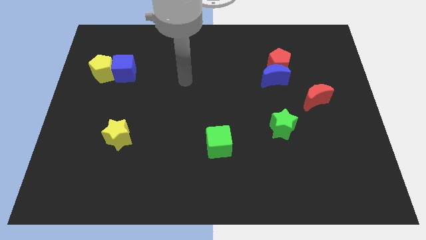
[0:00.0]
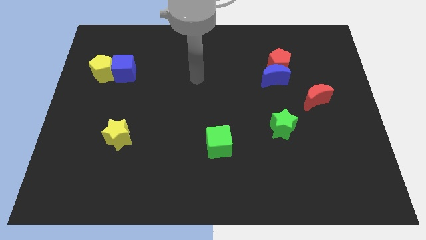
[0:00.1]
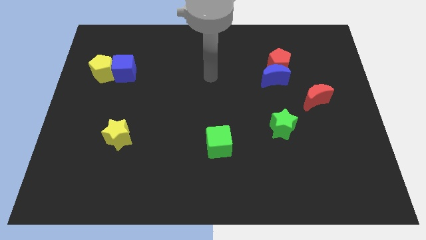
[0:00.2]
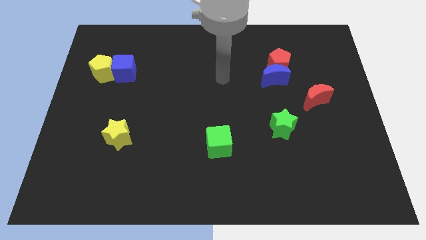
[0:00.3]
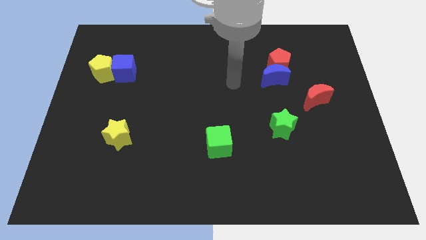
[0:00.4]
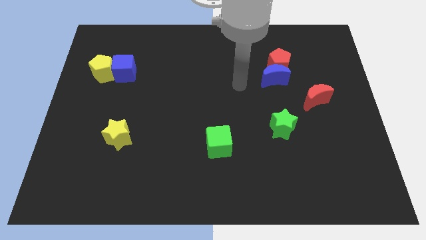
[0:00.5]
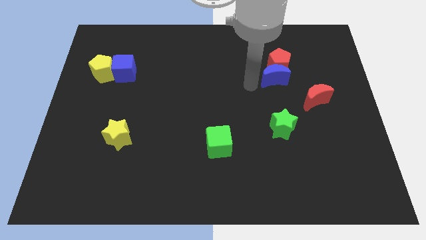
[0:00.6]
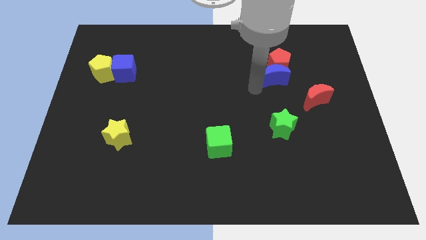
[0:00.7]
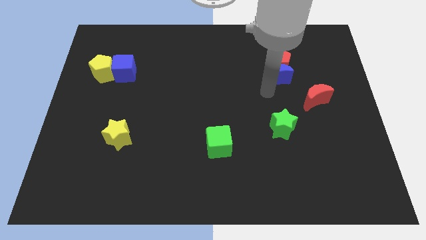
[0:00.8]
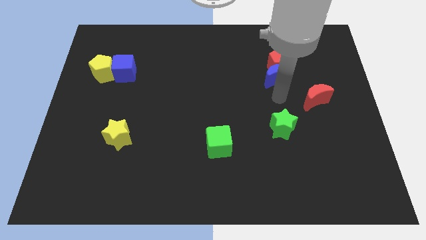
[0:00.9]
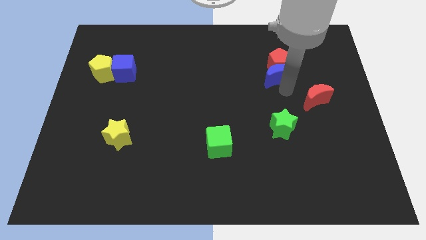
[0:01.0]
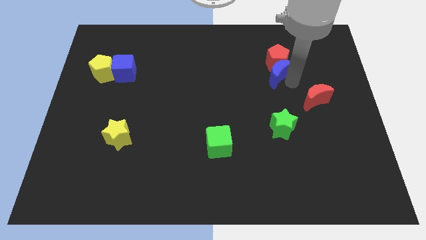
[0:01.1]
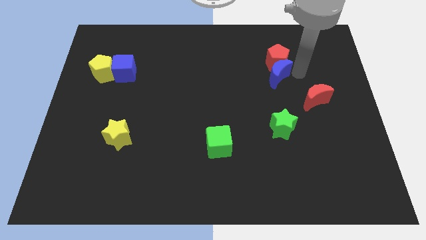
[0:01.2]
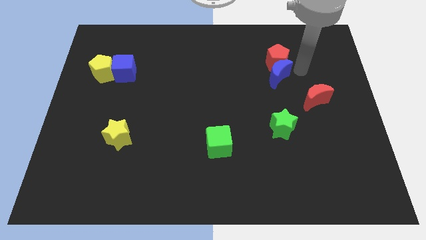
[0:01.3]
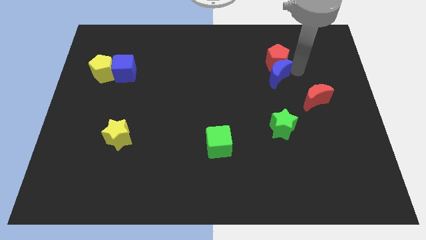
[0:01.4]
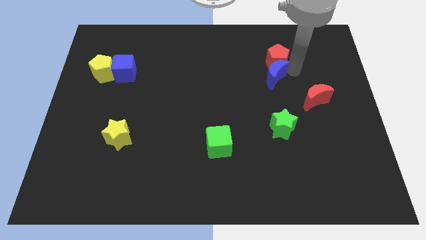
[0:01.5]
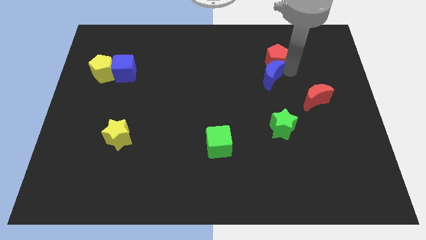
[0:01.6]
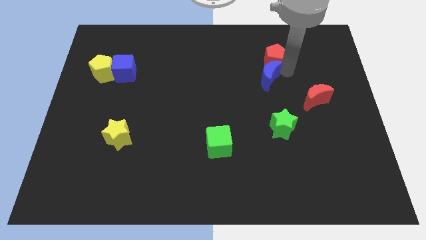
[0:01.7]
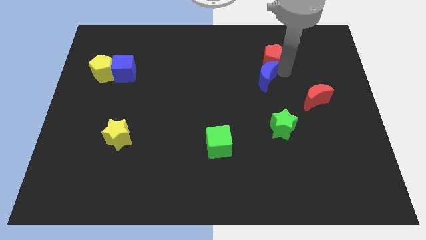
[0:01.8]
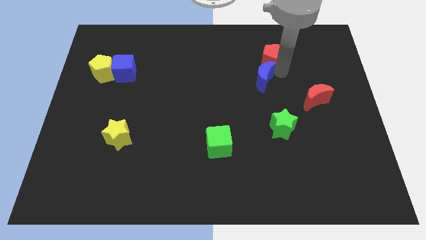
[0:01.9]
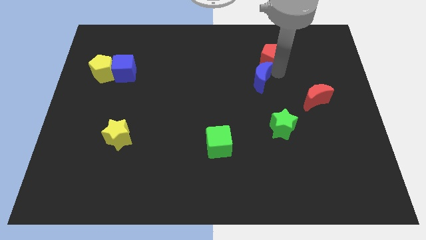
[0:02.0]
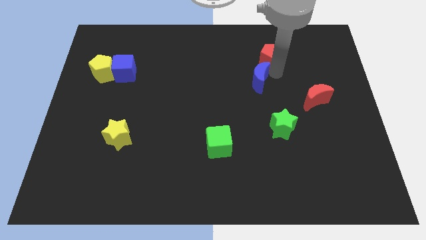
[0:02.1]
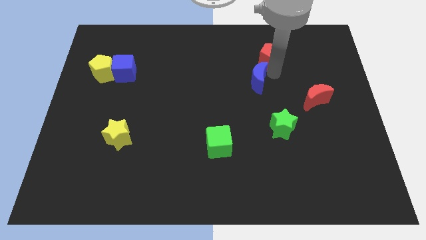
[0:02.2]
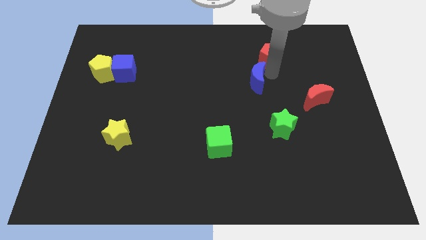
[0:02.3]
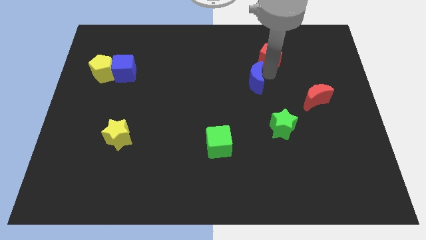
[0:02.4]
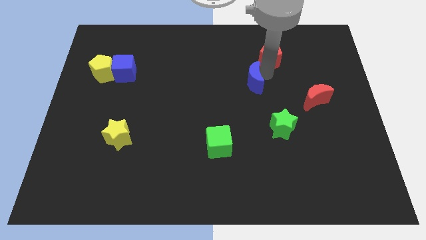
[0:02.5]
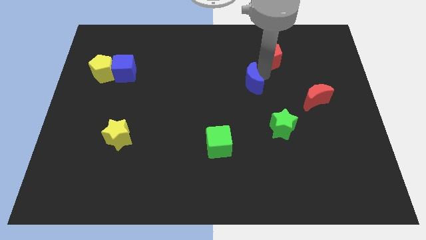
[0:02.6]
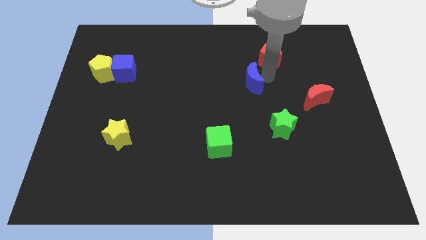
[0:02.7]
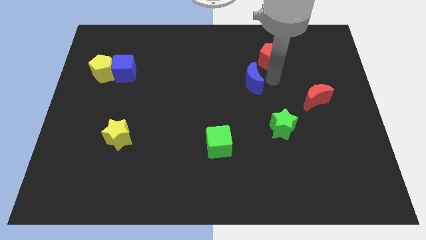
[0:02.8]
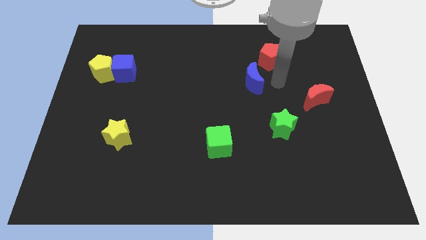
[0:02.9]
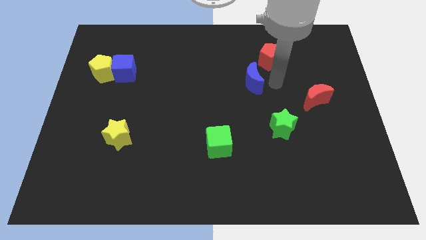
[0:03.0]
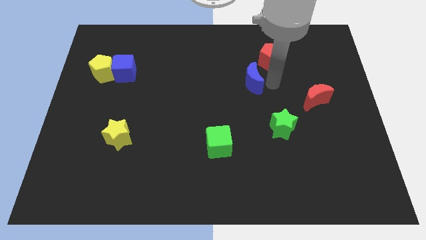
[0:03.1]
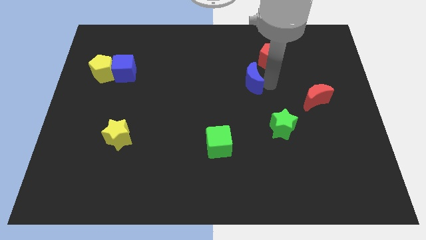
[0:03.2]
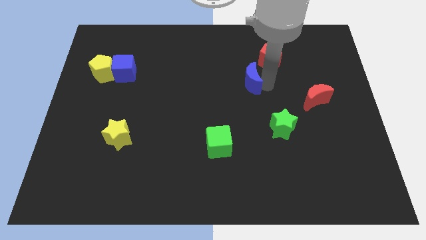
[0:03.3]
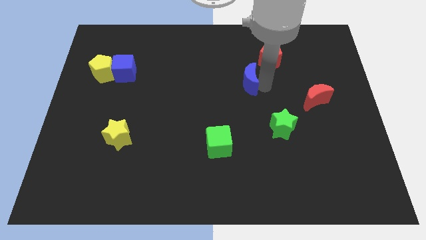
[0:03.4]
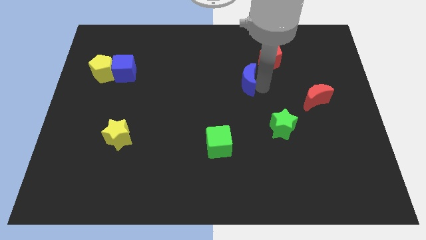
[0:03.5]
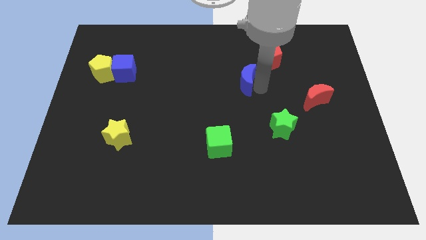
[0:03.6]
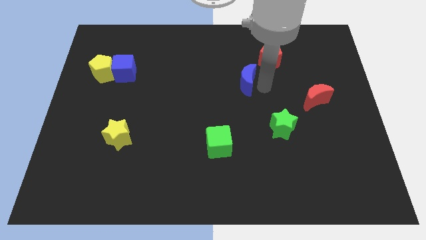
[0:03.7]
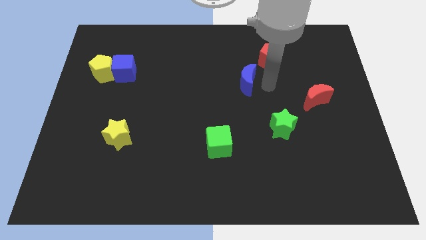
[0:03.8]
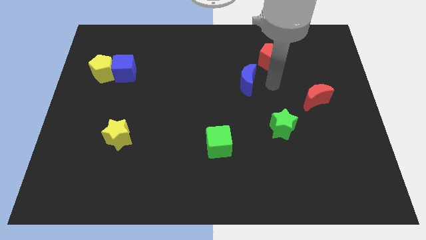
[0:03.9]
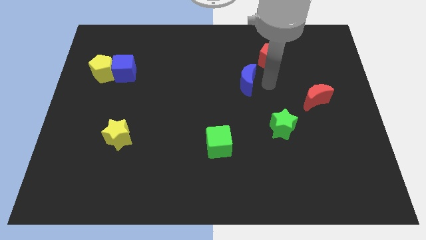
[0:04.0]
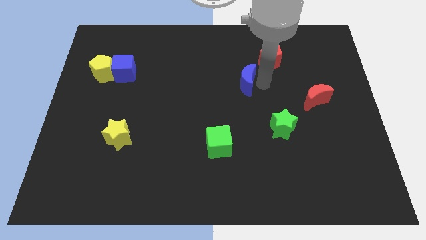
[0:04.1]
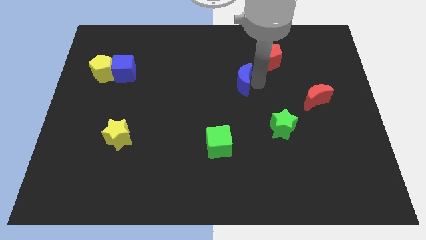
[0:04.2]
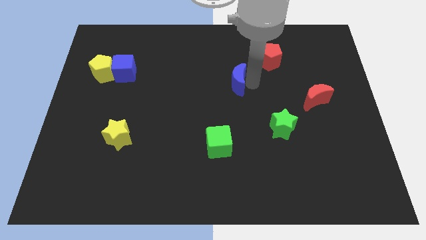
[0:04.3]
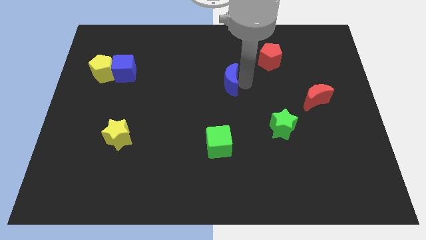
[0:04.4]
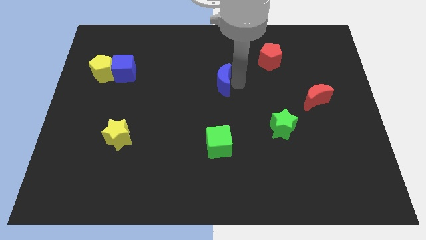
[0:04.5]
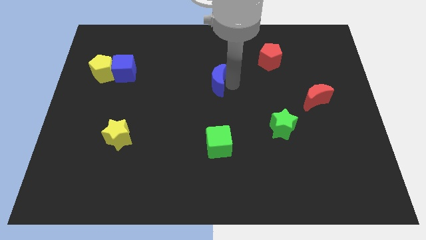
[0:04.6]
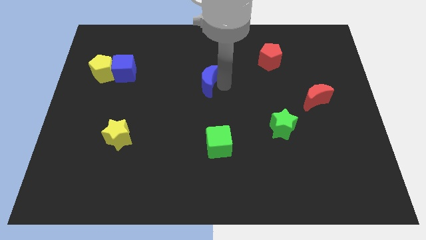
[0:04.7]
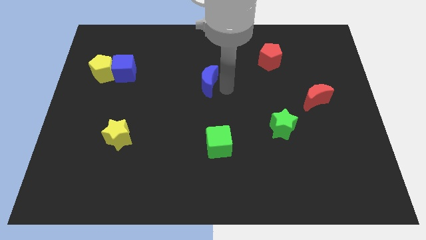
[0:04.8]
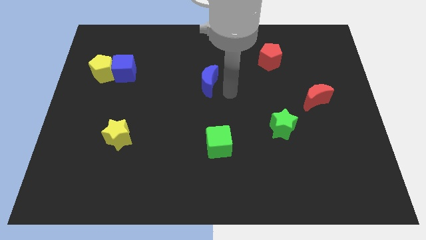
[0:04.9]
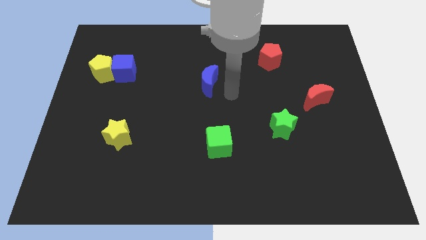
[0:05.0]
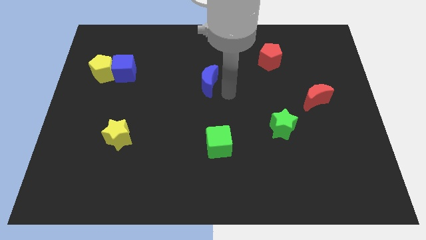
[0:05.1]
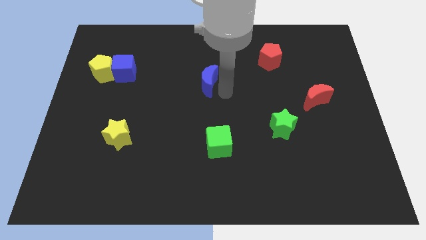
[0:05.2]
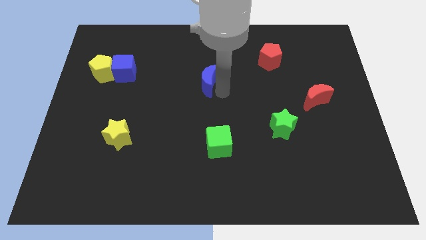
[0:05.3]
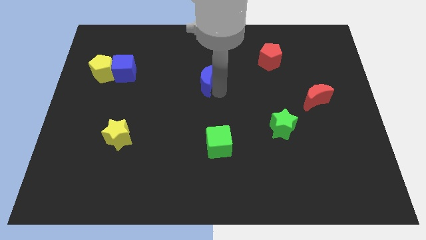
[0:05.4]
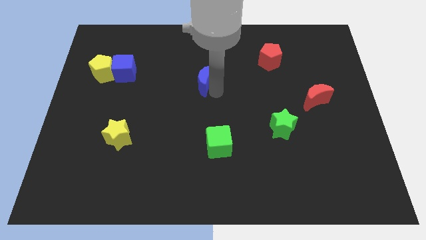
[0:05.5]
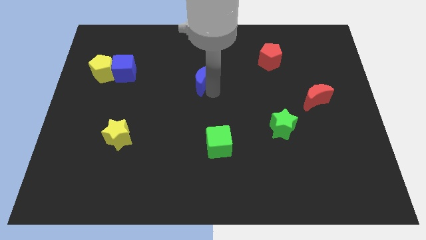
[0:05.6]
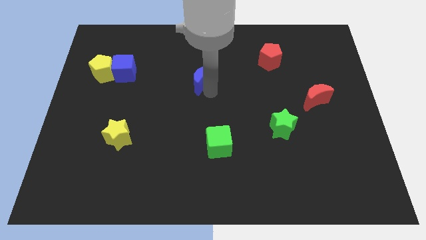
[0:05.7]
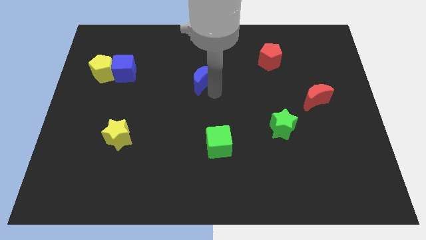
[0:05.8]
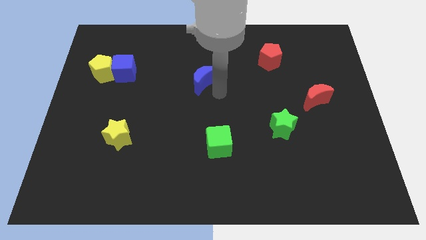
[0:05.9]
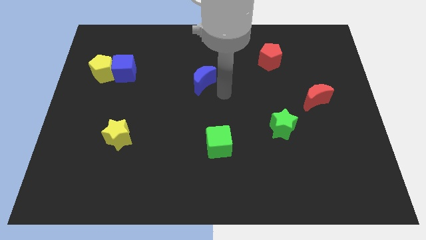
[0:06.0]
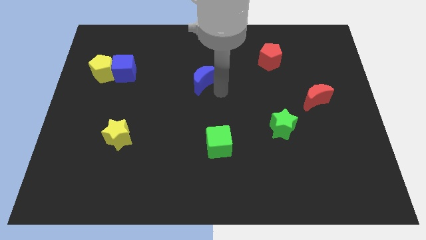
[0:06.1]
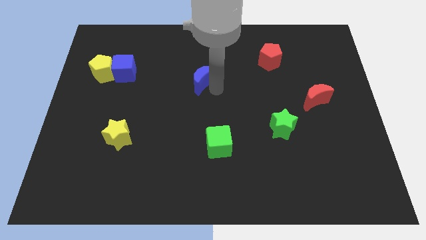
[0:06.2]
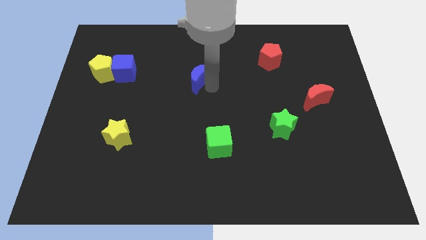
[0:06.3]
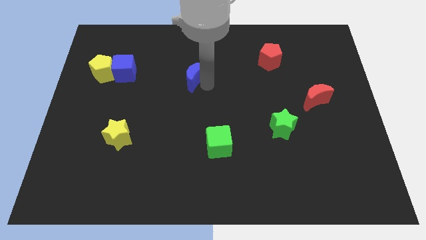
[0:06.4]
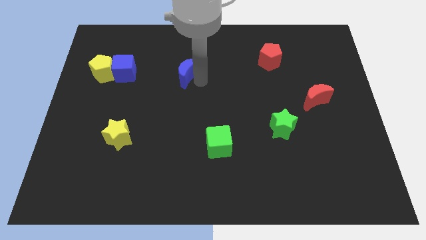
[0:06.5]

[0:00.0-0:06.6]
move the blue moon just right of the blue cube
